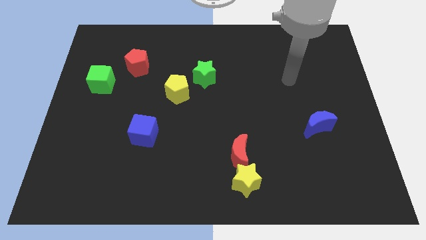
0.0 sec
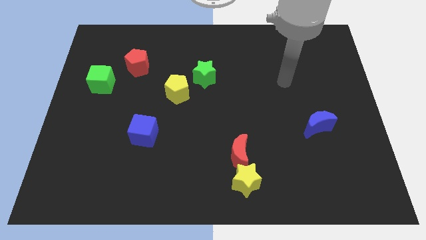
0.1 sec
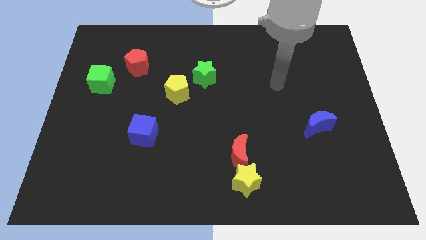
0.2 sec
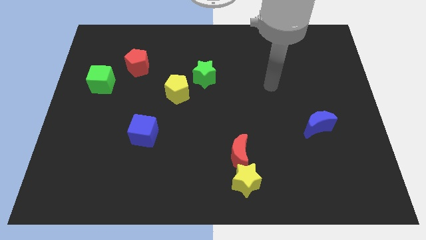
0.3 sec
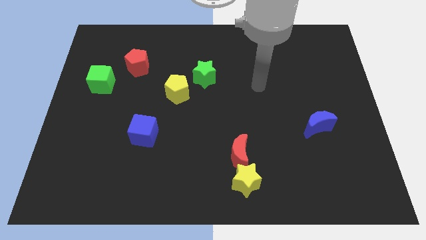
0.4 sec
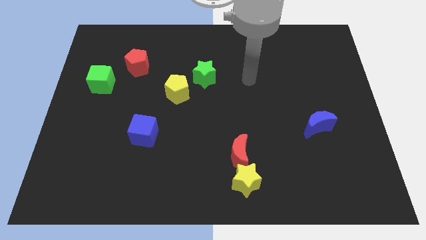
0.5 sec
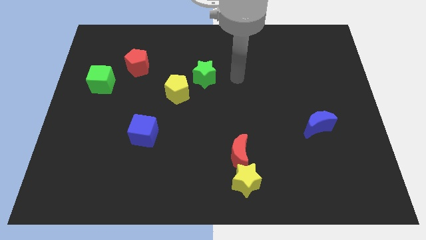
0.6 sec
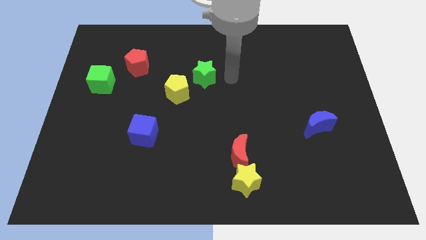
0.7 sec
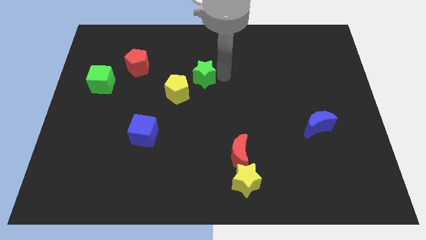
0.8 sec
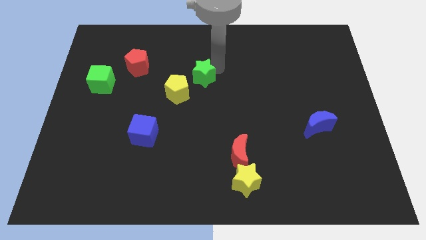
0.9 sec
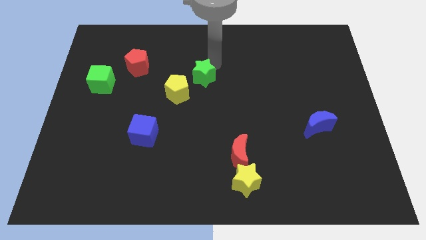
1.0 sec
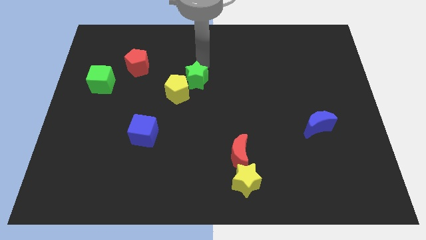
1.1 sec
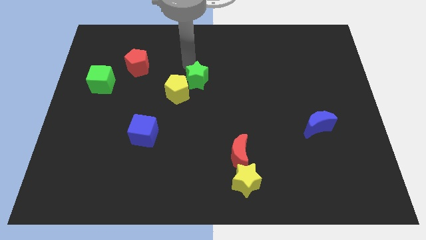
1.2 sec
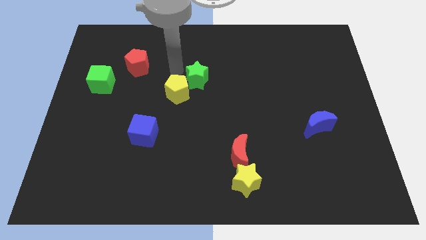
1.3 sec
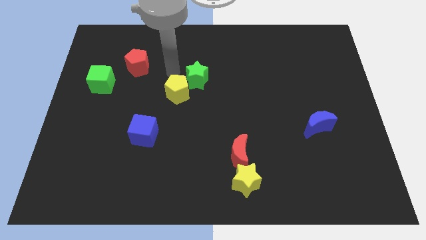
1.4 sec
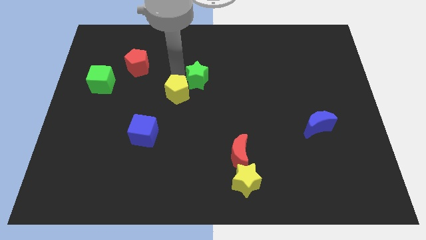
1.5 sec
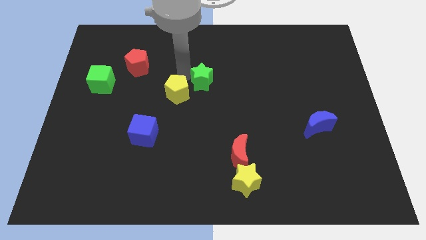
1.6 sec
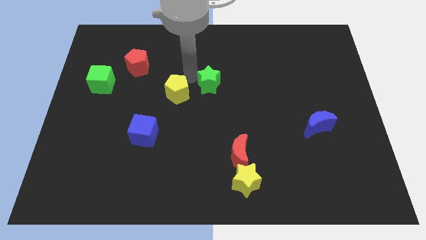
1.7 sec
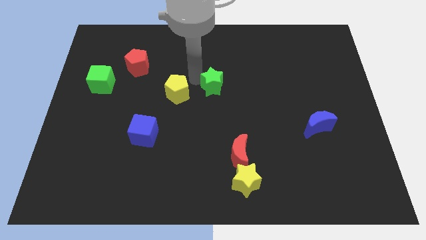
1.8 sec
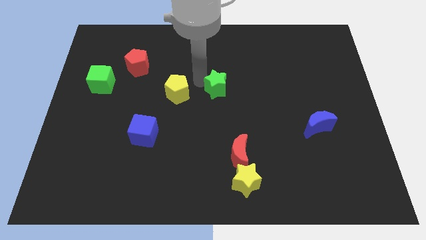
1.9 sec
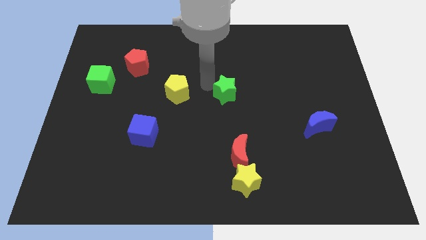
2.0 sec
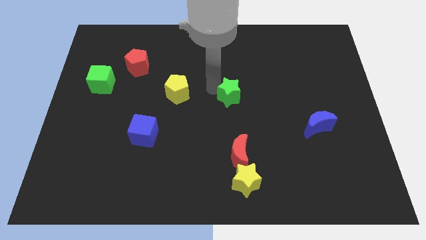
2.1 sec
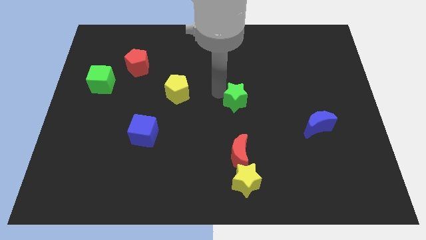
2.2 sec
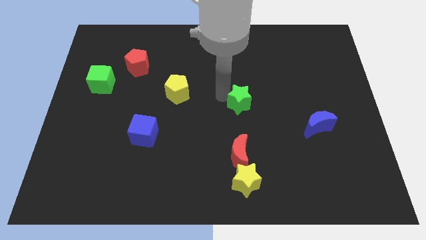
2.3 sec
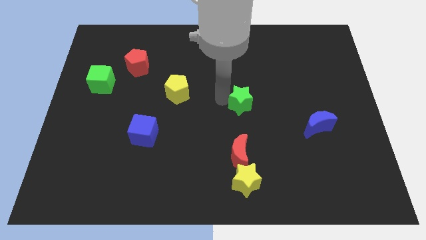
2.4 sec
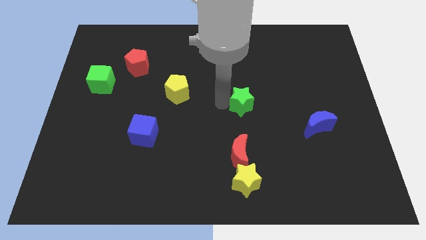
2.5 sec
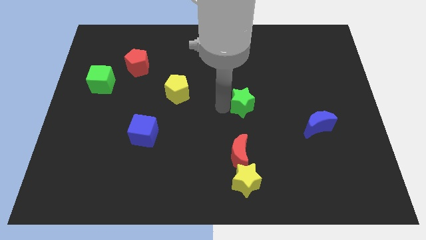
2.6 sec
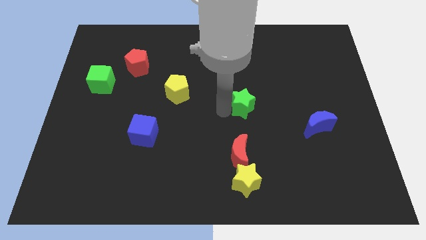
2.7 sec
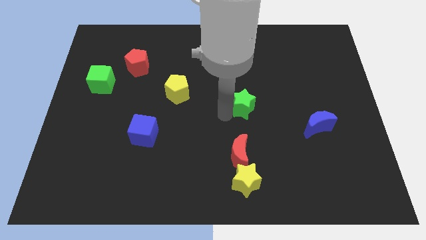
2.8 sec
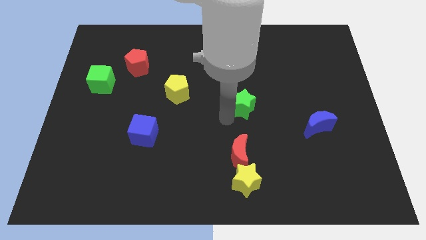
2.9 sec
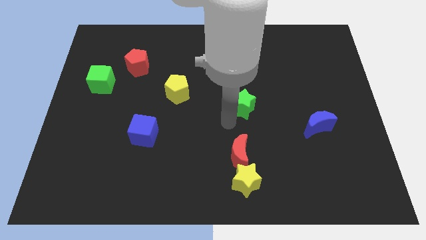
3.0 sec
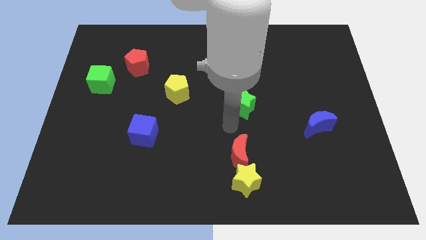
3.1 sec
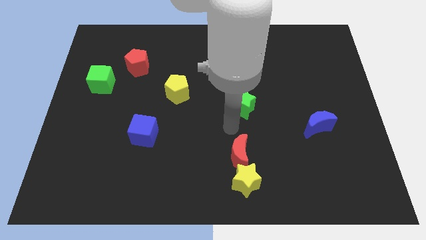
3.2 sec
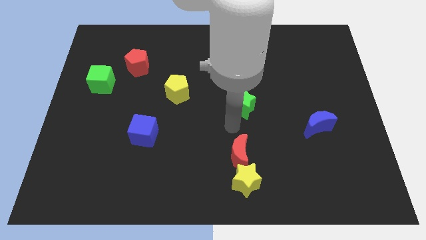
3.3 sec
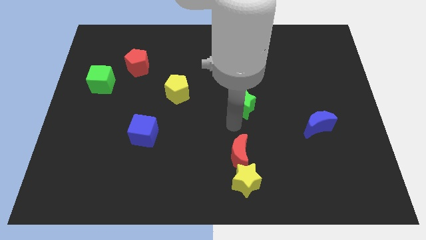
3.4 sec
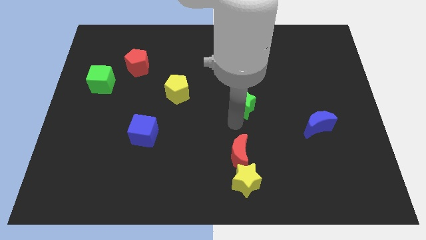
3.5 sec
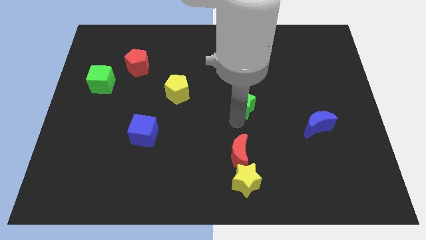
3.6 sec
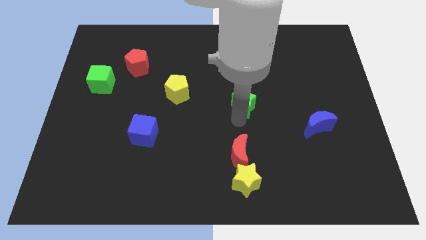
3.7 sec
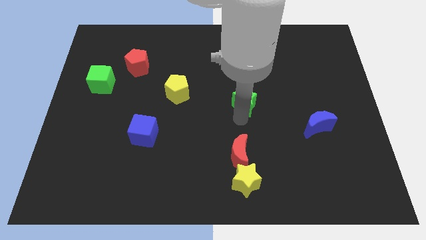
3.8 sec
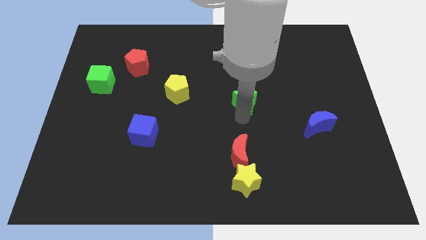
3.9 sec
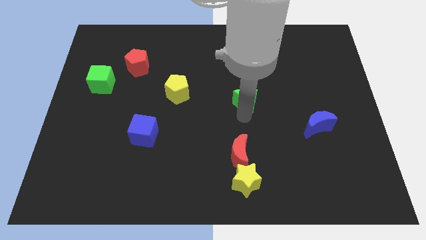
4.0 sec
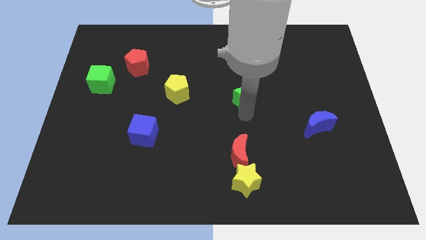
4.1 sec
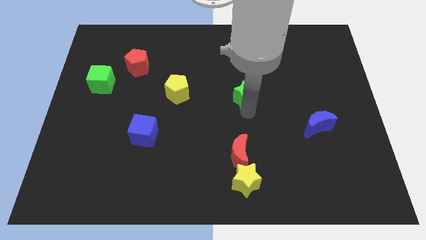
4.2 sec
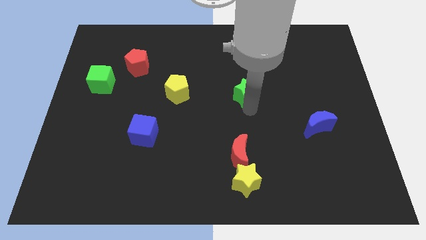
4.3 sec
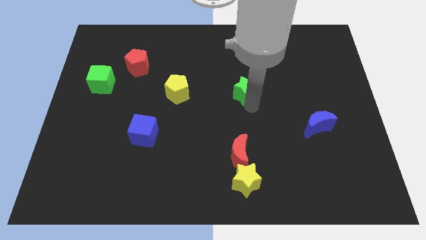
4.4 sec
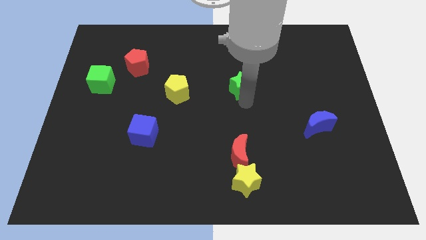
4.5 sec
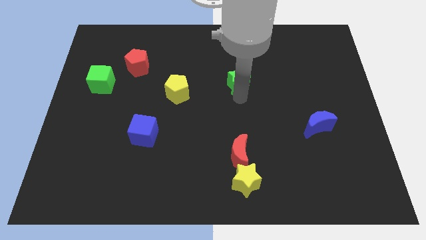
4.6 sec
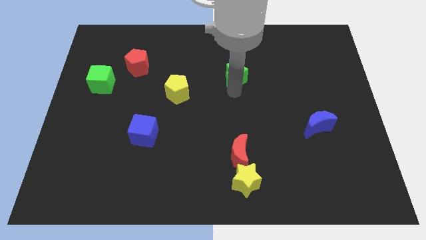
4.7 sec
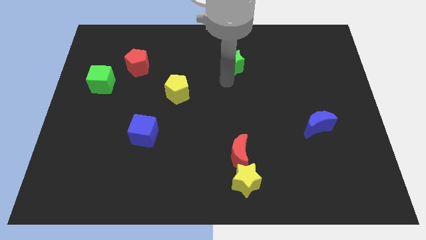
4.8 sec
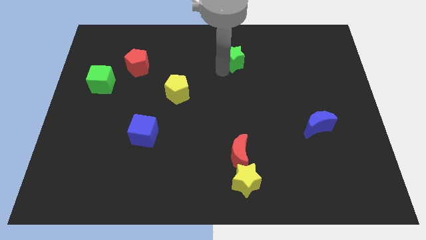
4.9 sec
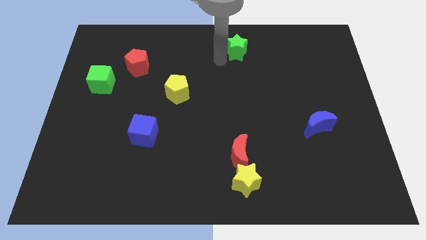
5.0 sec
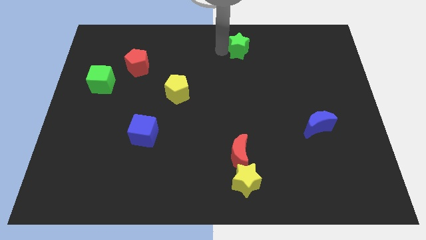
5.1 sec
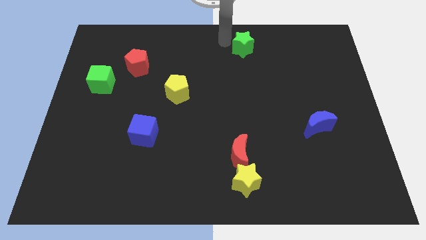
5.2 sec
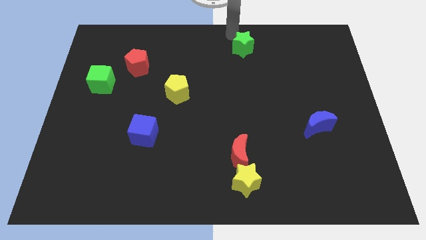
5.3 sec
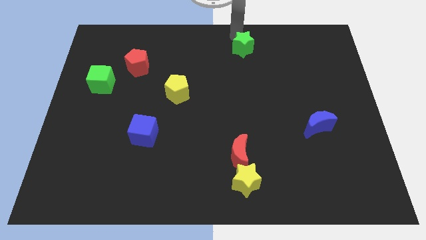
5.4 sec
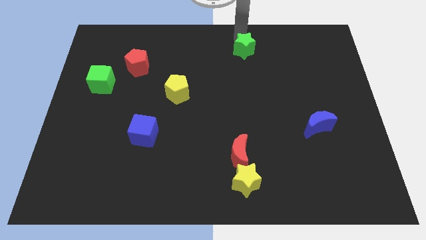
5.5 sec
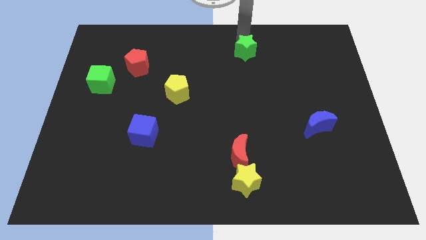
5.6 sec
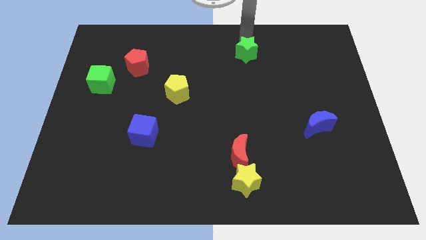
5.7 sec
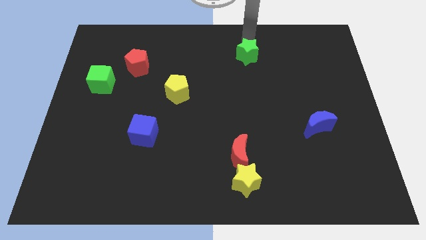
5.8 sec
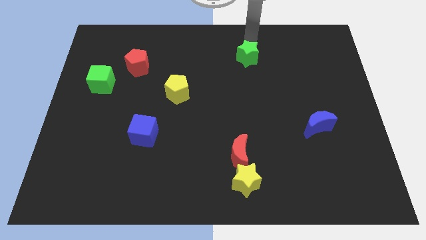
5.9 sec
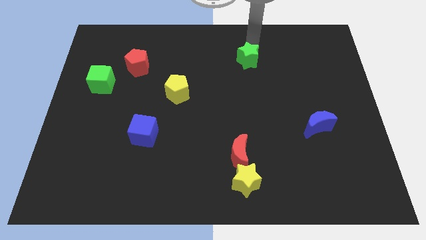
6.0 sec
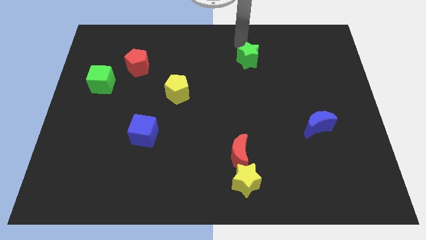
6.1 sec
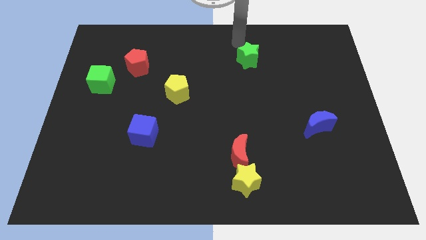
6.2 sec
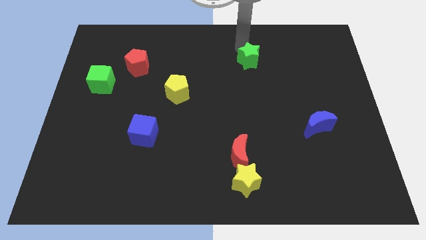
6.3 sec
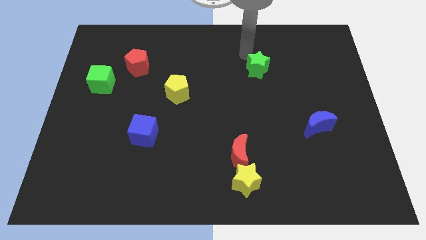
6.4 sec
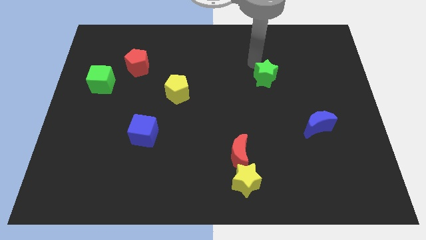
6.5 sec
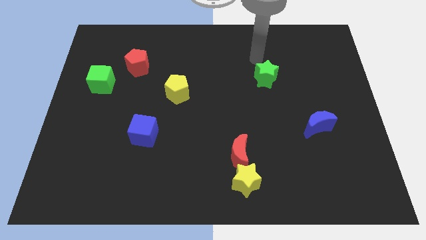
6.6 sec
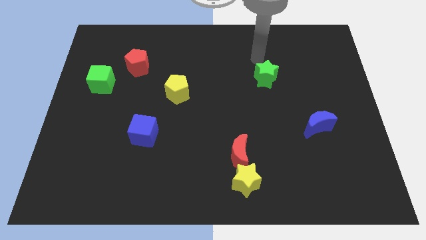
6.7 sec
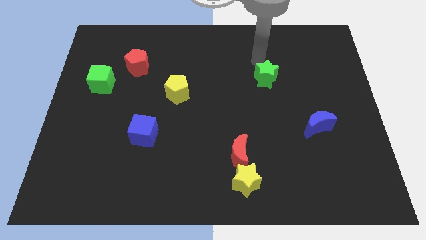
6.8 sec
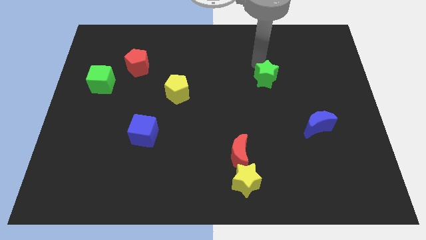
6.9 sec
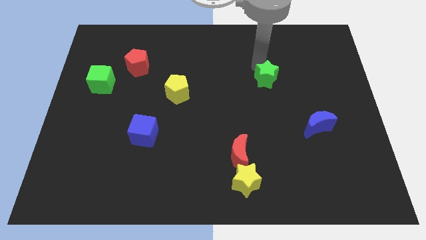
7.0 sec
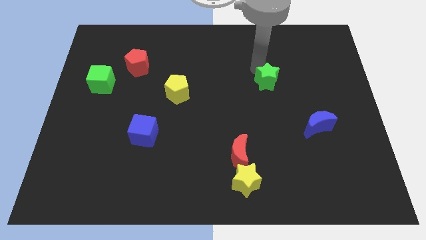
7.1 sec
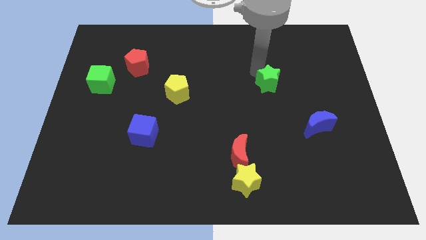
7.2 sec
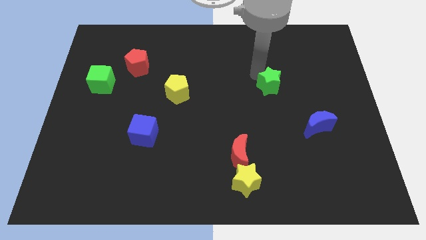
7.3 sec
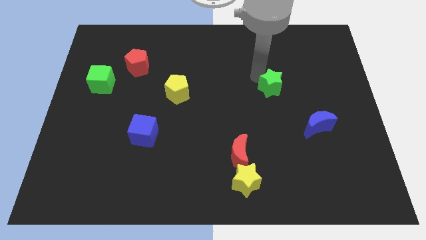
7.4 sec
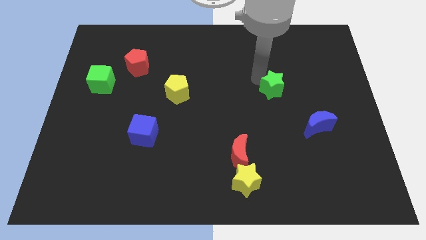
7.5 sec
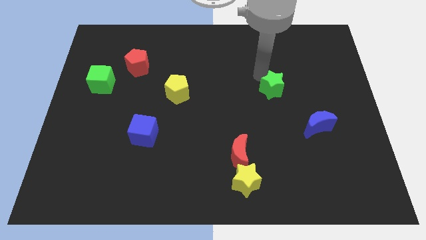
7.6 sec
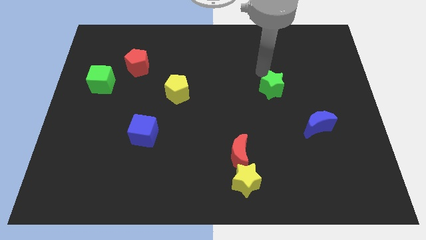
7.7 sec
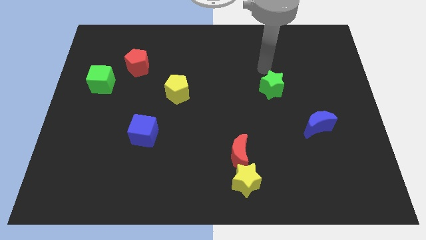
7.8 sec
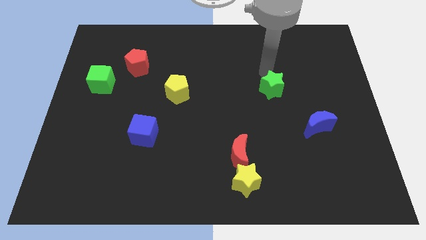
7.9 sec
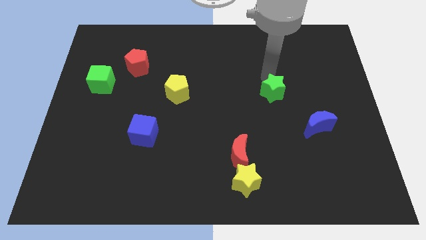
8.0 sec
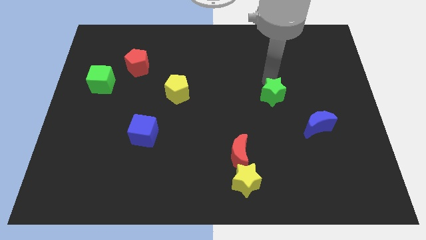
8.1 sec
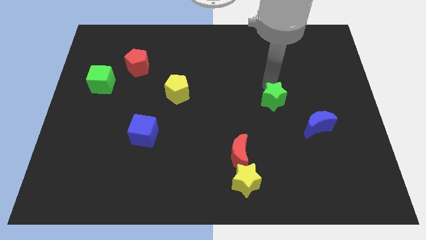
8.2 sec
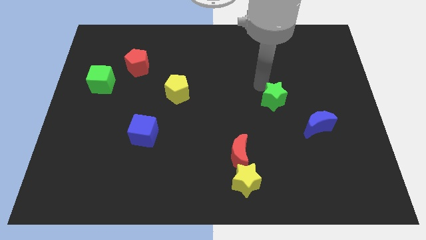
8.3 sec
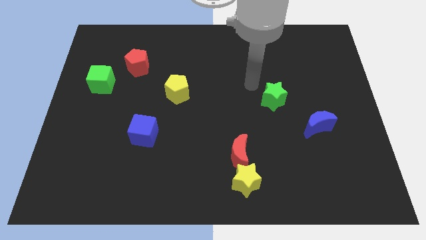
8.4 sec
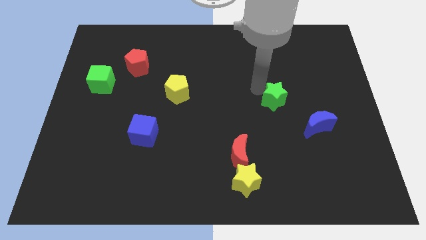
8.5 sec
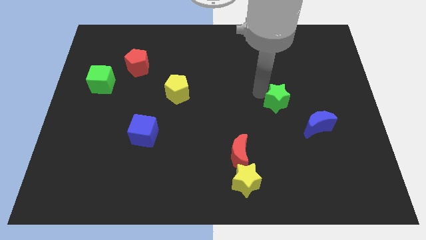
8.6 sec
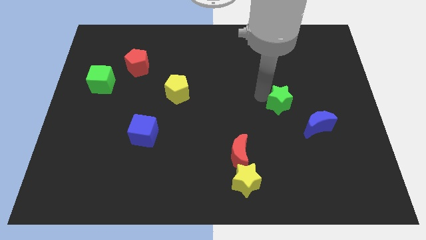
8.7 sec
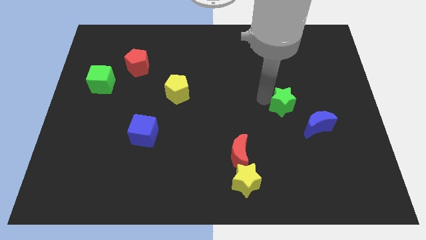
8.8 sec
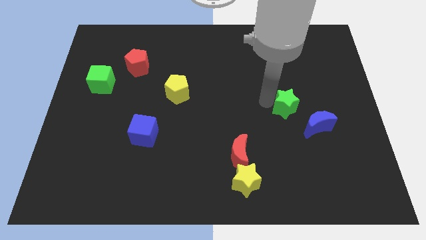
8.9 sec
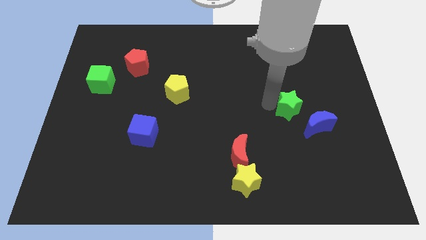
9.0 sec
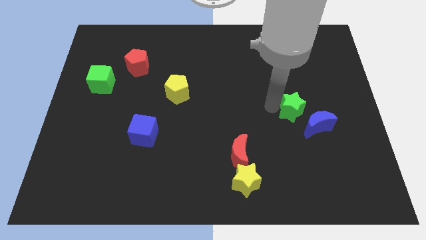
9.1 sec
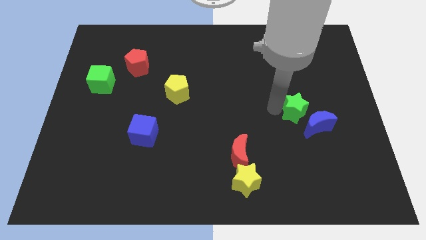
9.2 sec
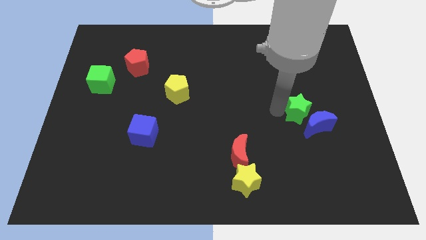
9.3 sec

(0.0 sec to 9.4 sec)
push the green star towards the blue moon
